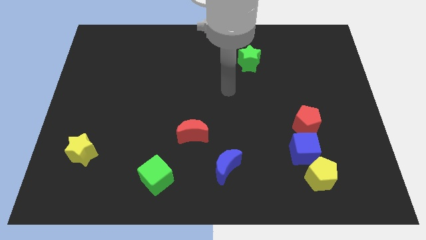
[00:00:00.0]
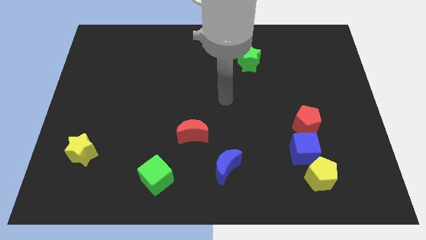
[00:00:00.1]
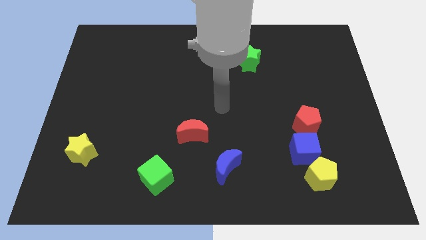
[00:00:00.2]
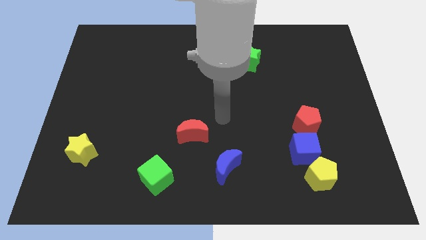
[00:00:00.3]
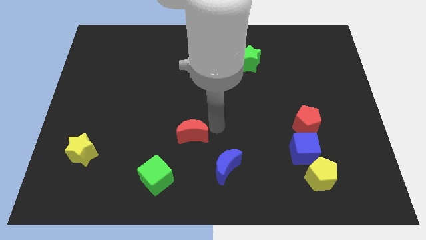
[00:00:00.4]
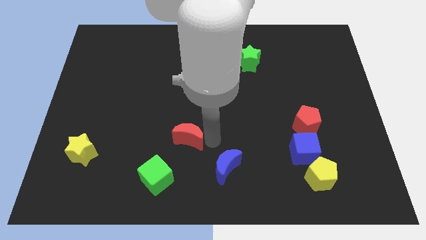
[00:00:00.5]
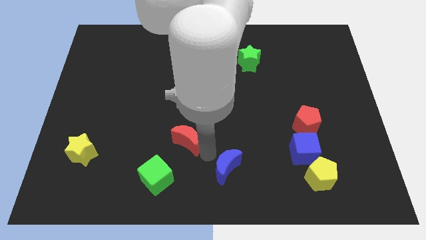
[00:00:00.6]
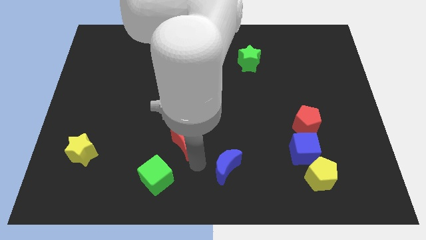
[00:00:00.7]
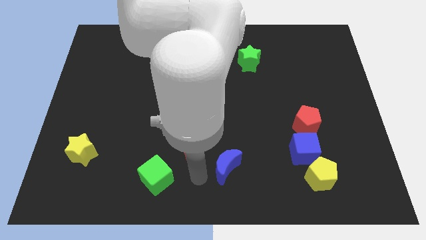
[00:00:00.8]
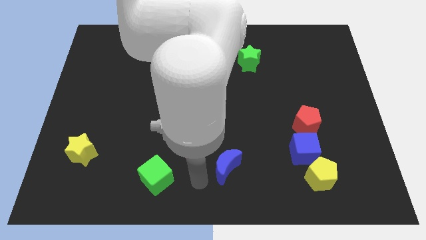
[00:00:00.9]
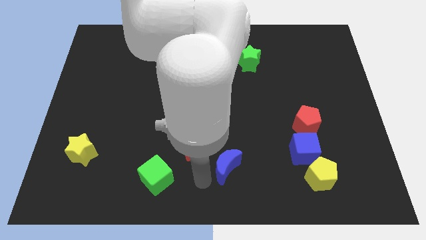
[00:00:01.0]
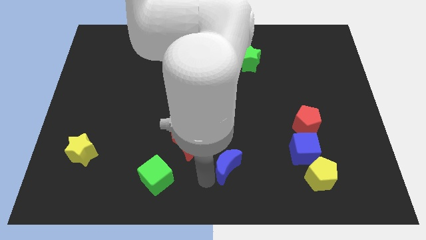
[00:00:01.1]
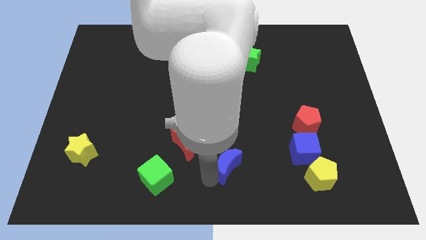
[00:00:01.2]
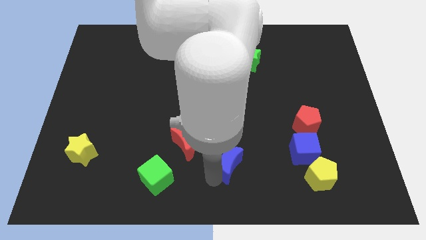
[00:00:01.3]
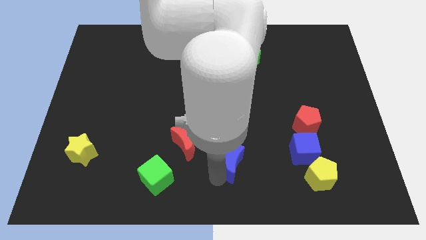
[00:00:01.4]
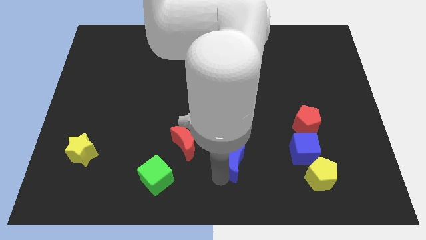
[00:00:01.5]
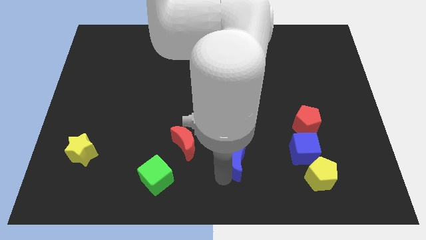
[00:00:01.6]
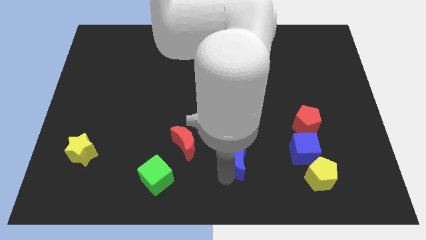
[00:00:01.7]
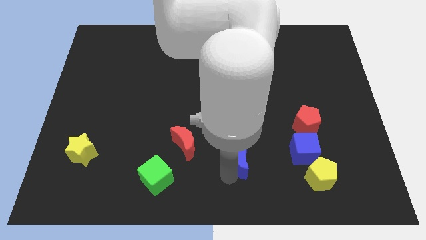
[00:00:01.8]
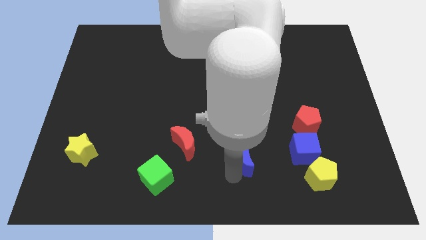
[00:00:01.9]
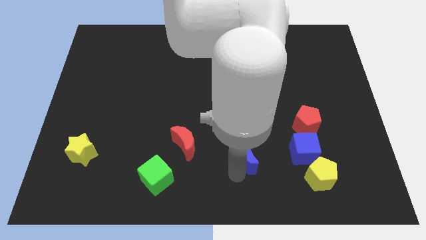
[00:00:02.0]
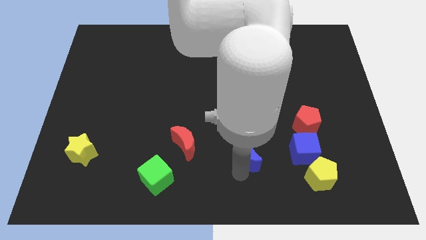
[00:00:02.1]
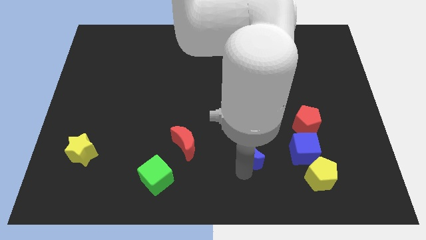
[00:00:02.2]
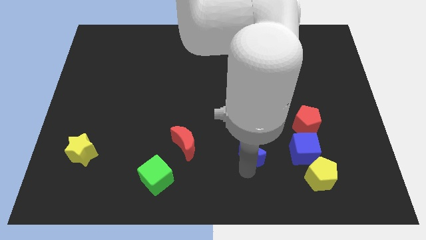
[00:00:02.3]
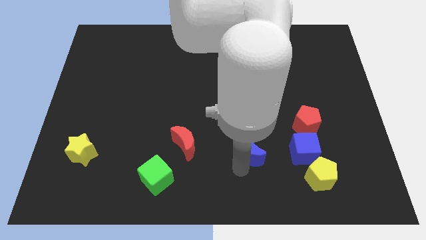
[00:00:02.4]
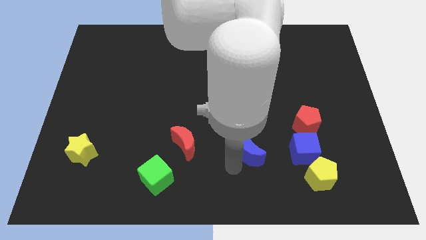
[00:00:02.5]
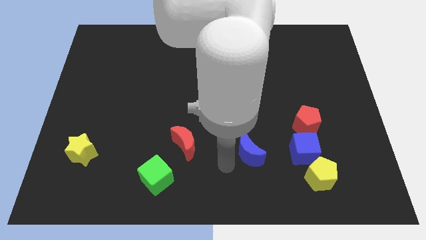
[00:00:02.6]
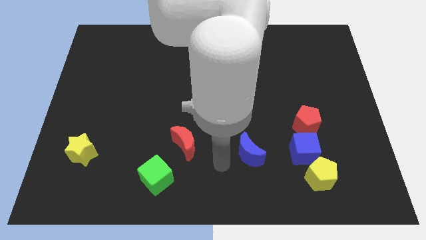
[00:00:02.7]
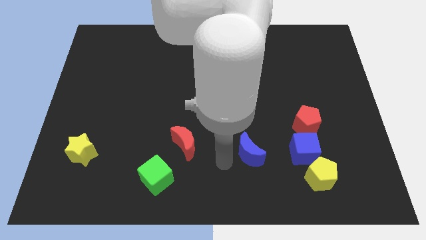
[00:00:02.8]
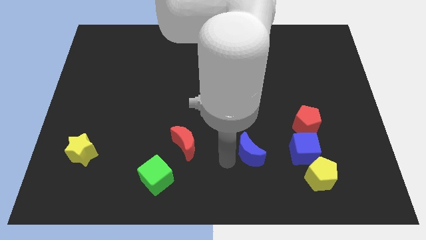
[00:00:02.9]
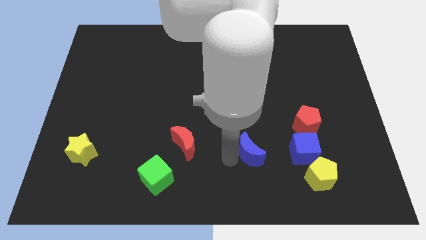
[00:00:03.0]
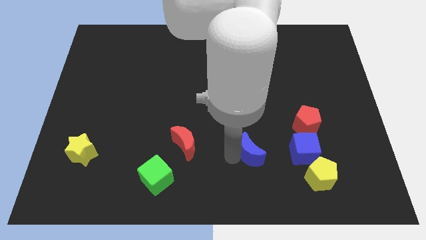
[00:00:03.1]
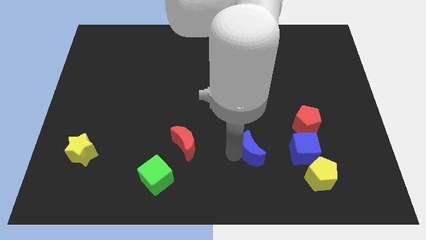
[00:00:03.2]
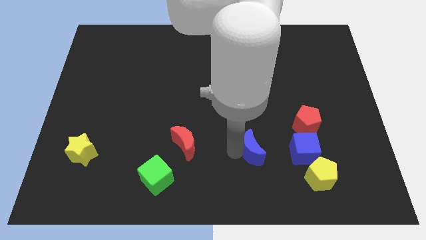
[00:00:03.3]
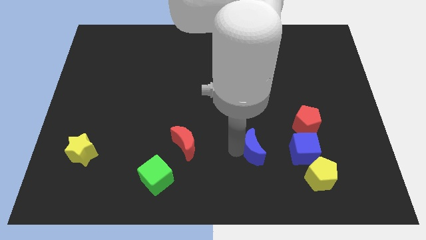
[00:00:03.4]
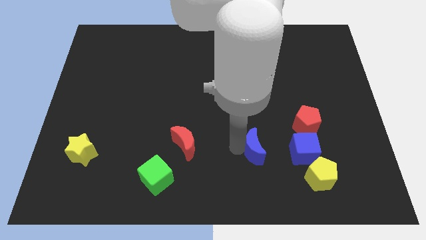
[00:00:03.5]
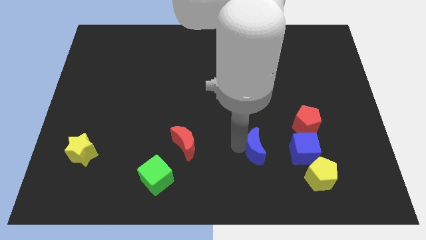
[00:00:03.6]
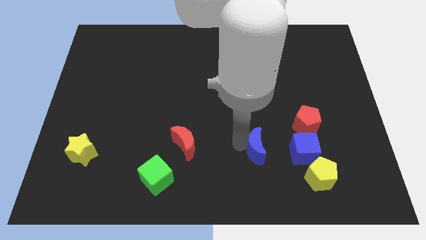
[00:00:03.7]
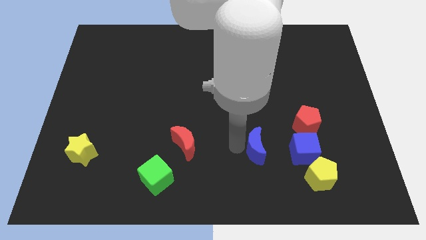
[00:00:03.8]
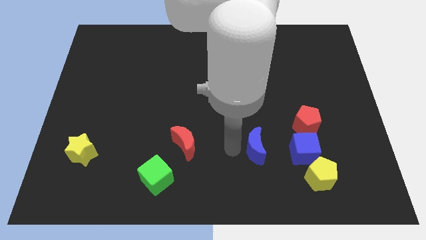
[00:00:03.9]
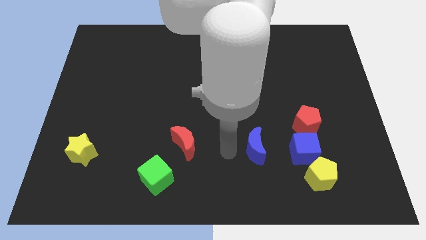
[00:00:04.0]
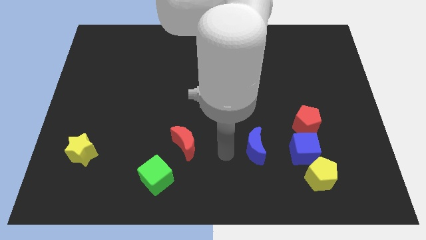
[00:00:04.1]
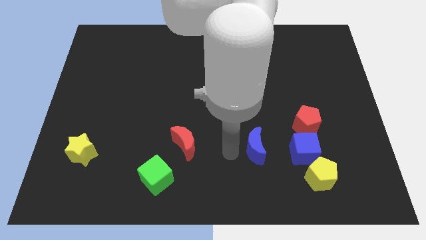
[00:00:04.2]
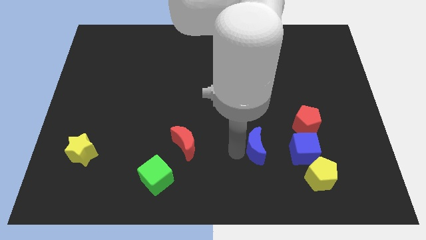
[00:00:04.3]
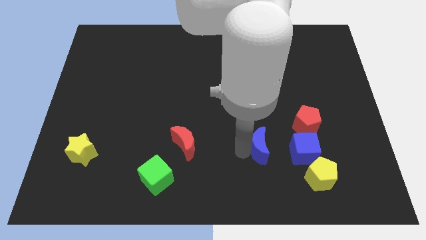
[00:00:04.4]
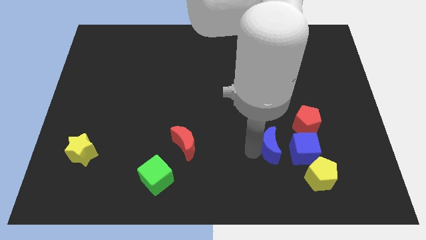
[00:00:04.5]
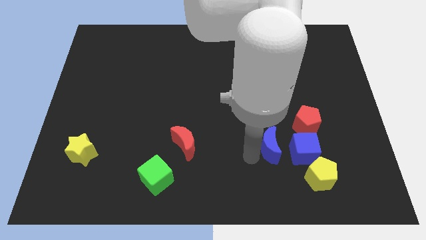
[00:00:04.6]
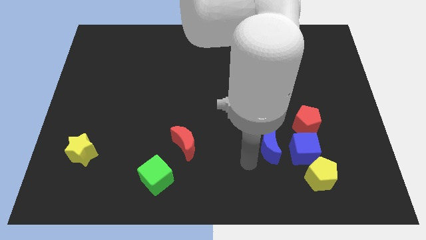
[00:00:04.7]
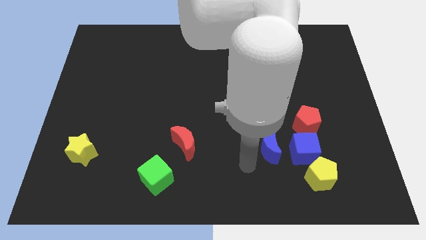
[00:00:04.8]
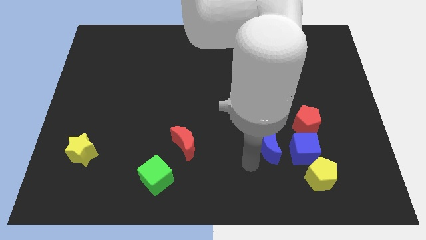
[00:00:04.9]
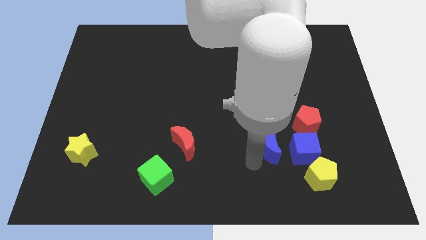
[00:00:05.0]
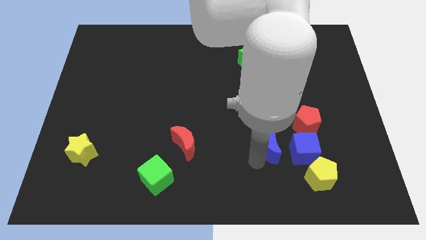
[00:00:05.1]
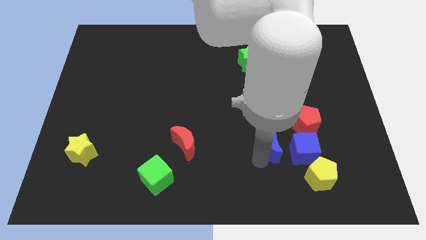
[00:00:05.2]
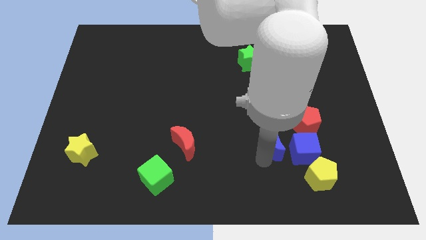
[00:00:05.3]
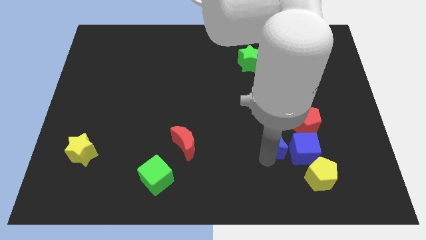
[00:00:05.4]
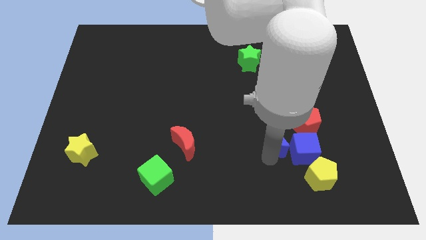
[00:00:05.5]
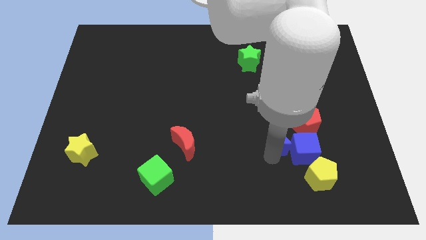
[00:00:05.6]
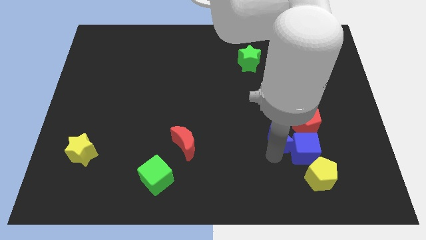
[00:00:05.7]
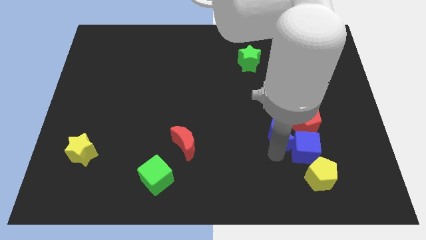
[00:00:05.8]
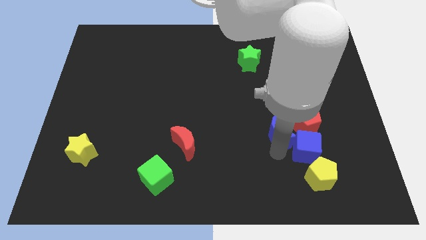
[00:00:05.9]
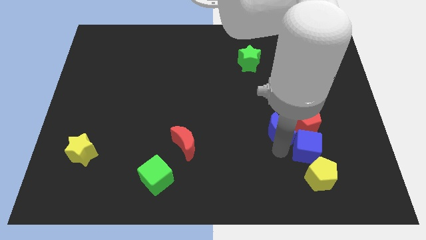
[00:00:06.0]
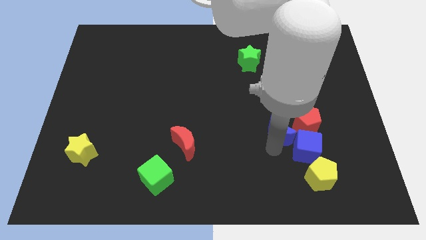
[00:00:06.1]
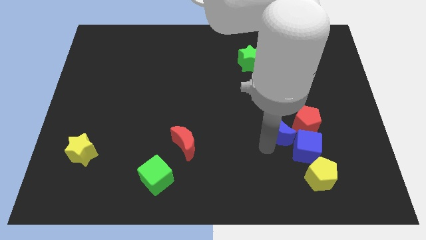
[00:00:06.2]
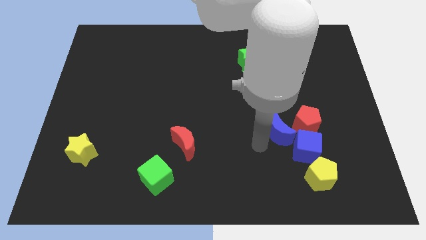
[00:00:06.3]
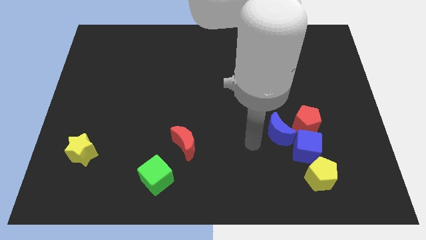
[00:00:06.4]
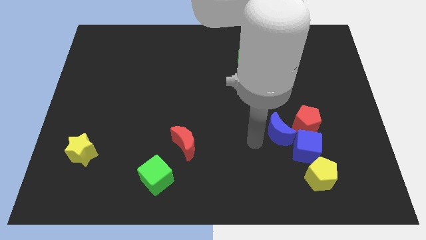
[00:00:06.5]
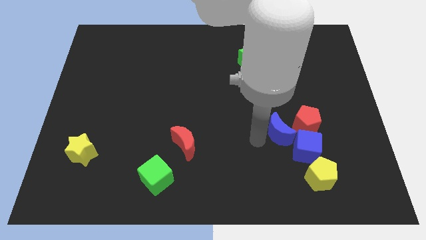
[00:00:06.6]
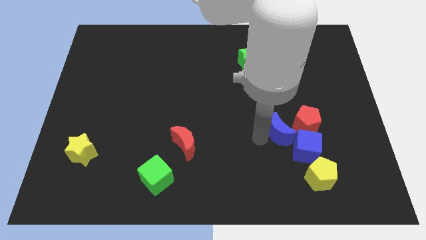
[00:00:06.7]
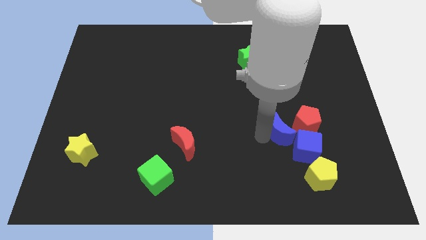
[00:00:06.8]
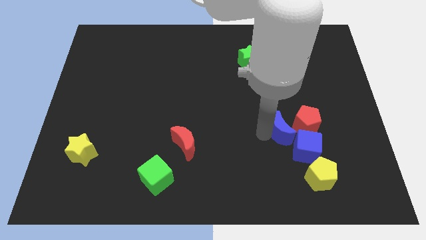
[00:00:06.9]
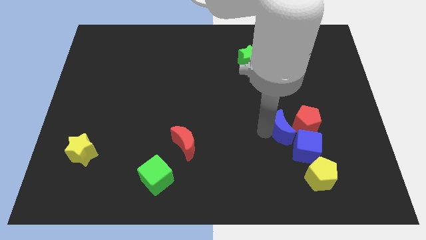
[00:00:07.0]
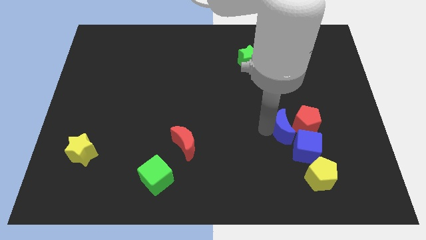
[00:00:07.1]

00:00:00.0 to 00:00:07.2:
push the blue moon close to the red pentagon
